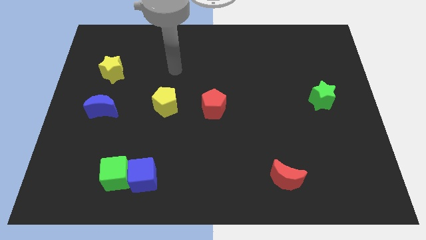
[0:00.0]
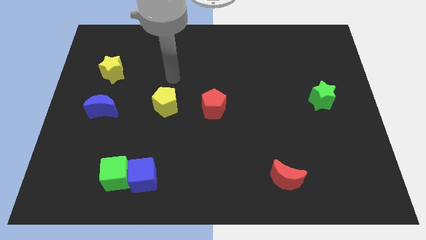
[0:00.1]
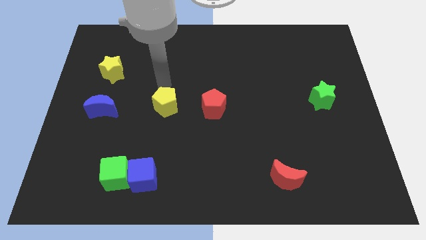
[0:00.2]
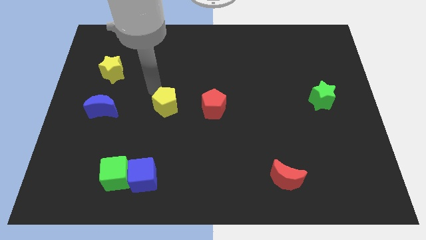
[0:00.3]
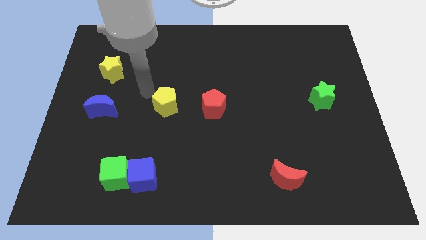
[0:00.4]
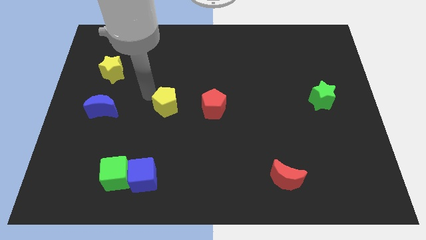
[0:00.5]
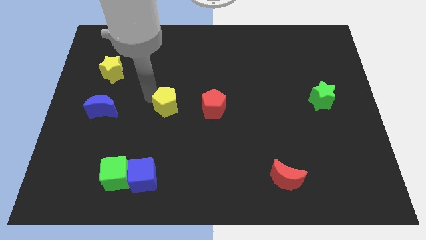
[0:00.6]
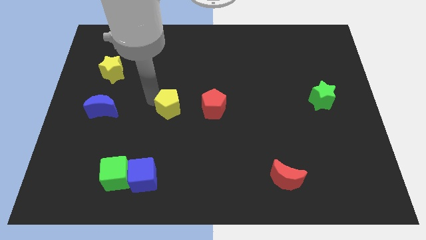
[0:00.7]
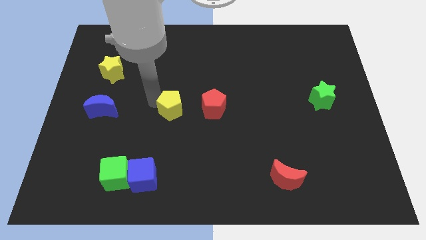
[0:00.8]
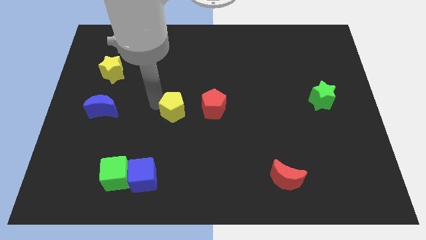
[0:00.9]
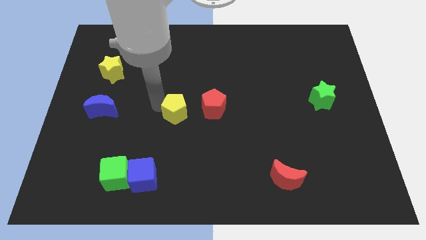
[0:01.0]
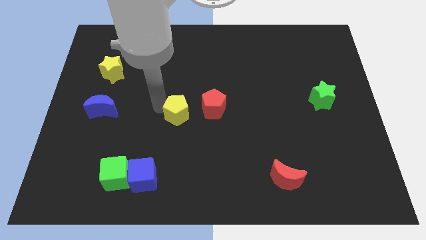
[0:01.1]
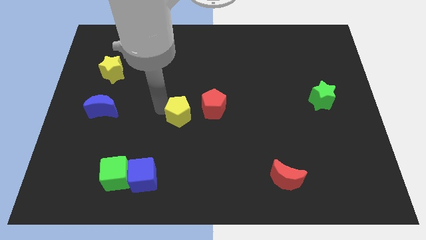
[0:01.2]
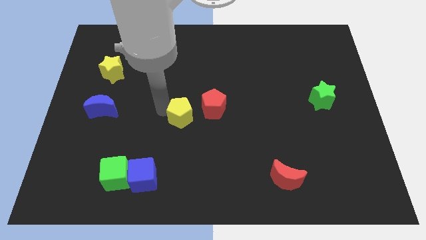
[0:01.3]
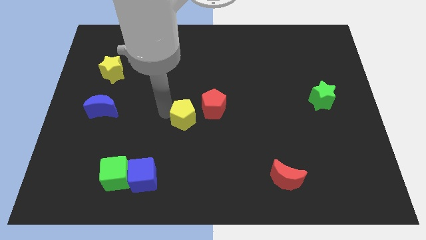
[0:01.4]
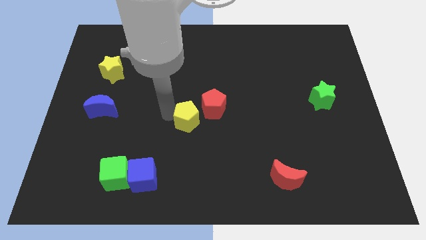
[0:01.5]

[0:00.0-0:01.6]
slightly slide the yellow pentagon down and to the right diagonally

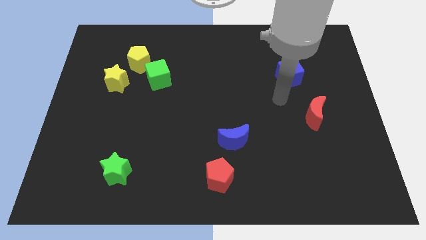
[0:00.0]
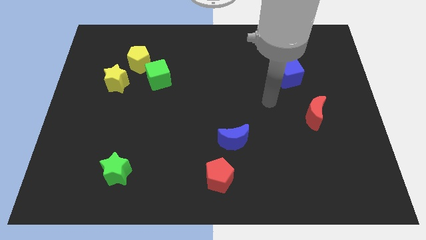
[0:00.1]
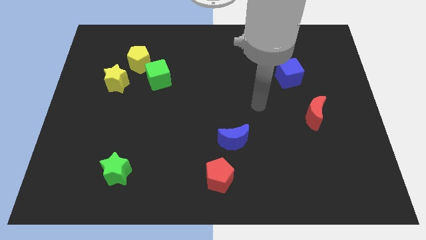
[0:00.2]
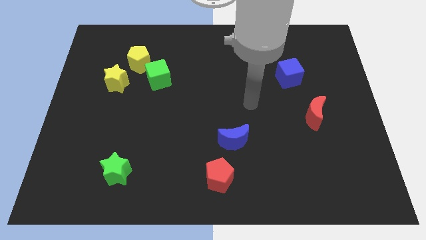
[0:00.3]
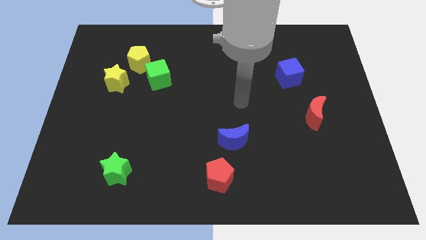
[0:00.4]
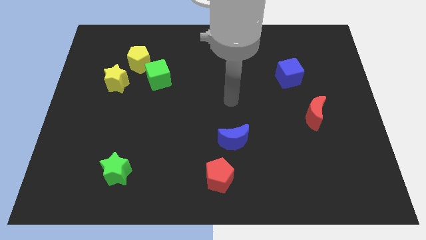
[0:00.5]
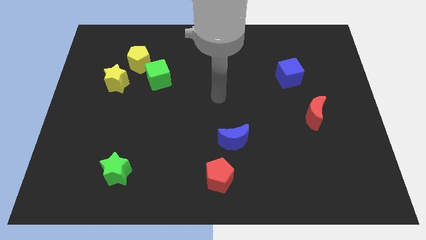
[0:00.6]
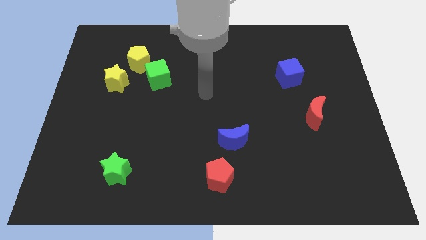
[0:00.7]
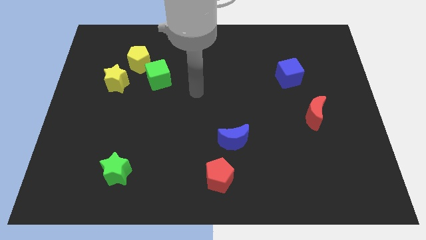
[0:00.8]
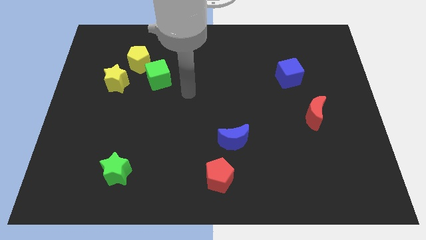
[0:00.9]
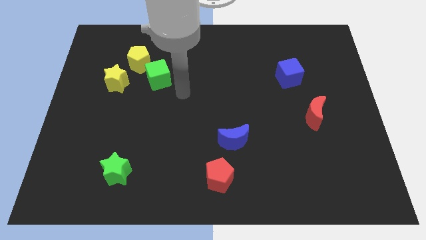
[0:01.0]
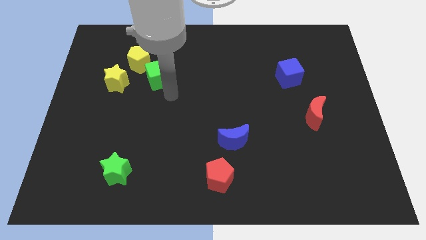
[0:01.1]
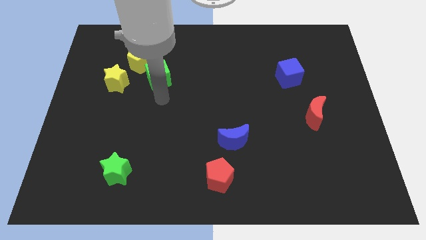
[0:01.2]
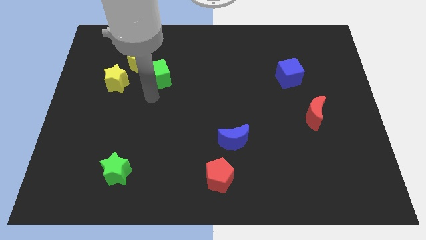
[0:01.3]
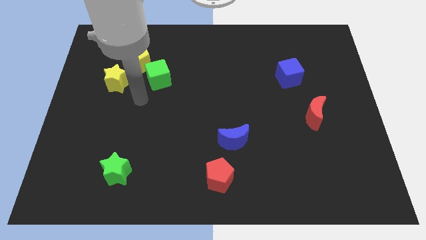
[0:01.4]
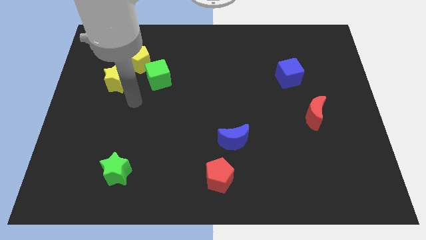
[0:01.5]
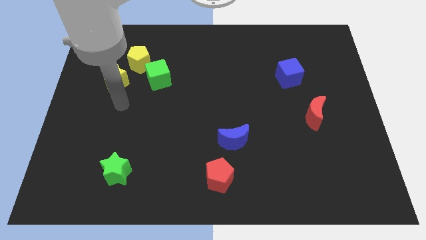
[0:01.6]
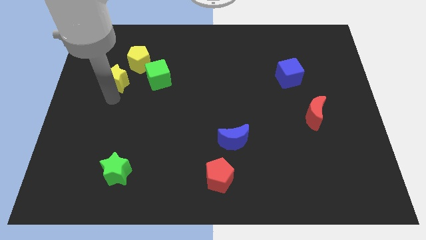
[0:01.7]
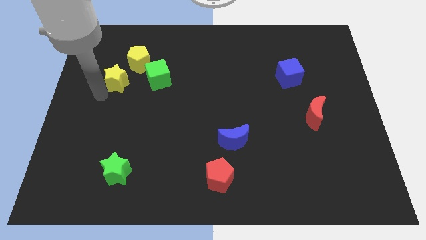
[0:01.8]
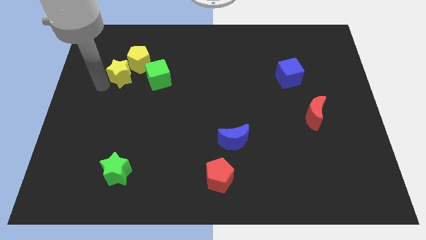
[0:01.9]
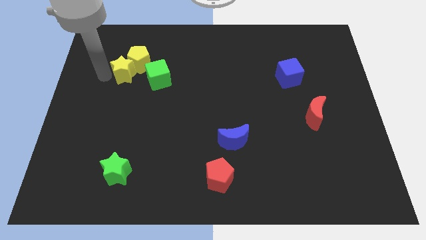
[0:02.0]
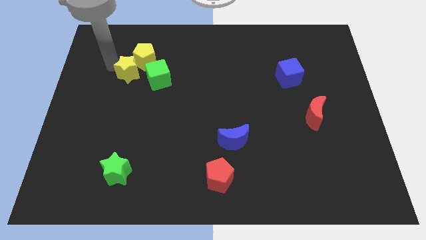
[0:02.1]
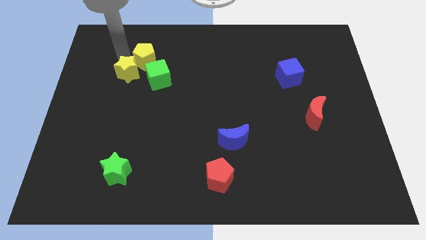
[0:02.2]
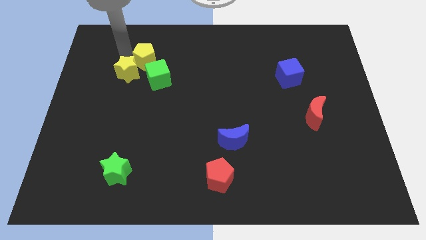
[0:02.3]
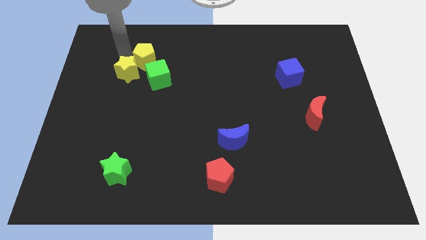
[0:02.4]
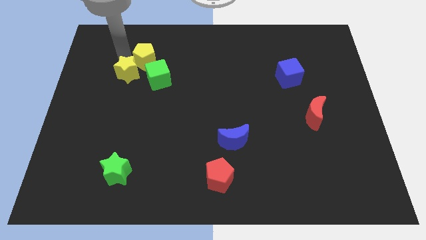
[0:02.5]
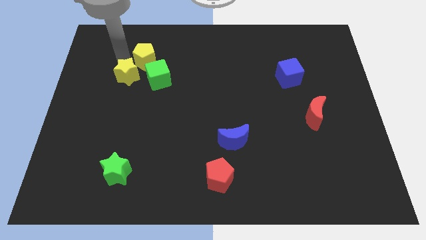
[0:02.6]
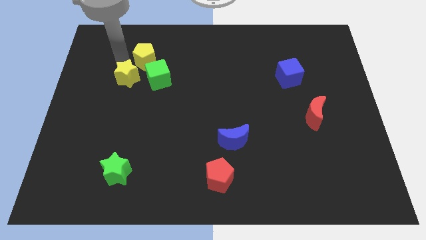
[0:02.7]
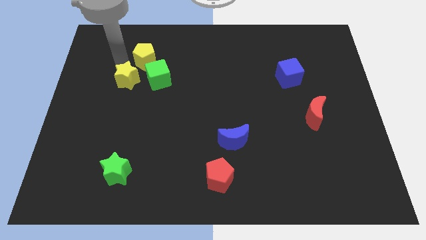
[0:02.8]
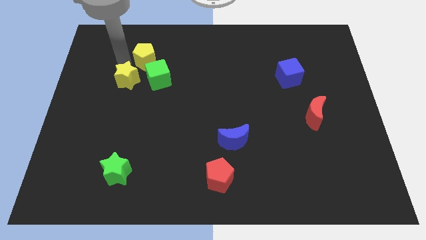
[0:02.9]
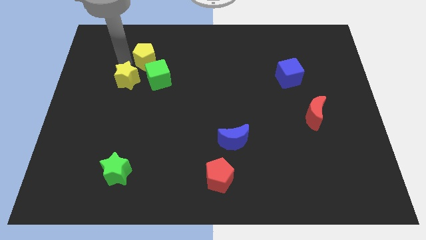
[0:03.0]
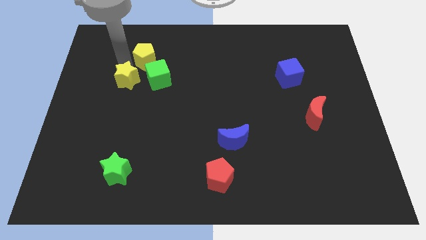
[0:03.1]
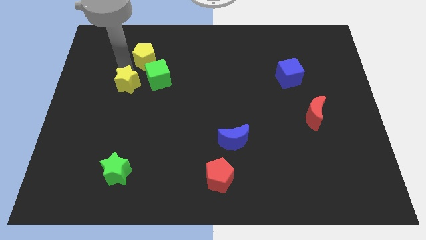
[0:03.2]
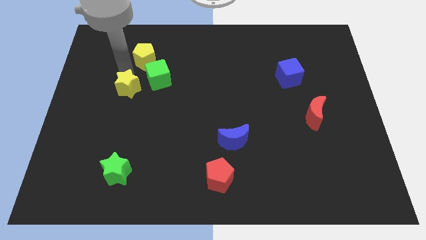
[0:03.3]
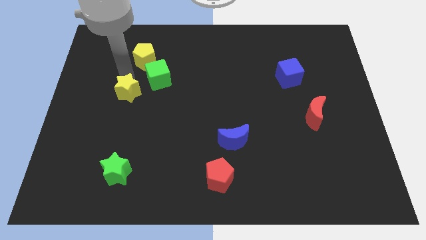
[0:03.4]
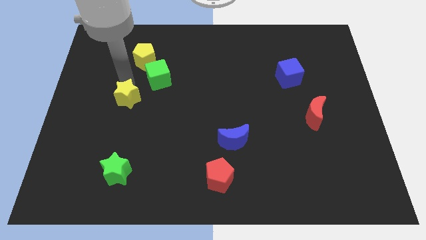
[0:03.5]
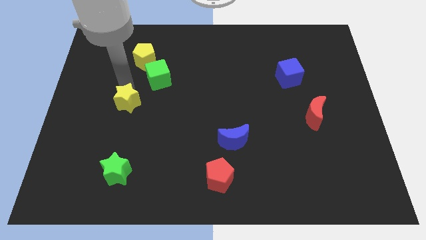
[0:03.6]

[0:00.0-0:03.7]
push the yellow star a bit down and right

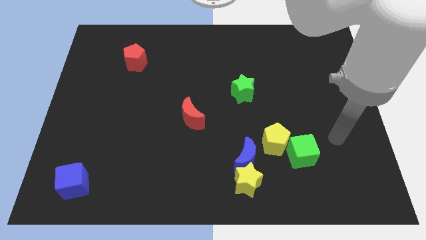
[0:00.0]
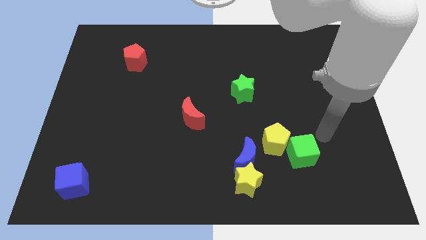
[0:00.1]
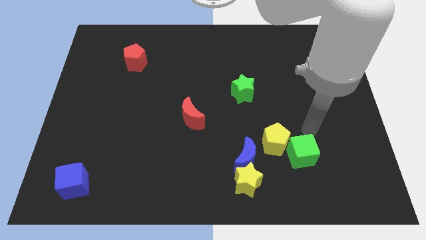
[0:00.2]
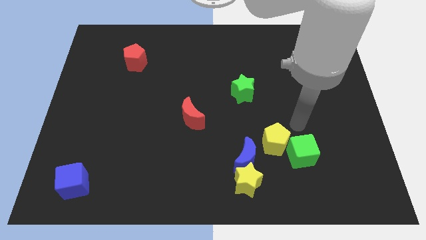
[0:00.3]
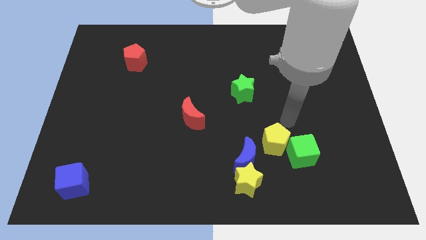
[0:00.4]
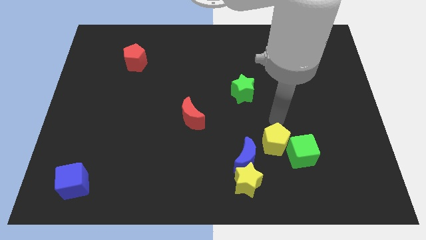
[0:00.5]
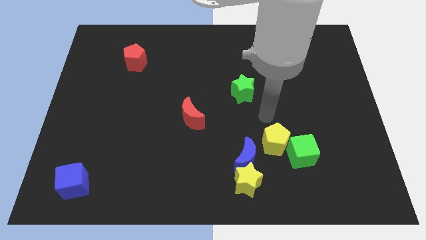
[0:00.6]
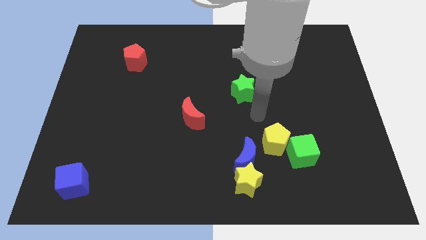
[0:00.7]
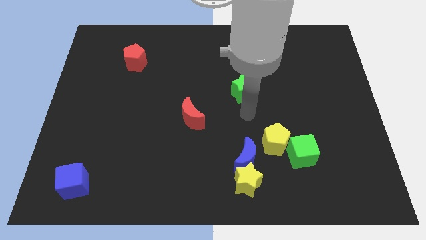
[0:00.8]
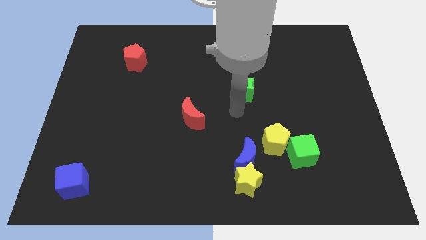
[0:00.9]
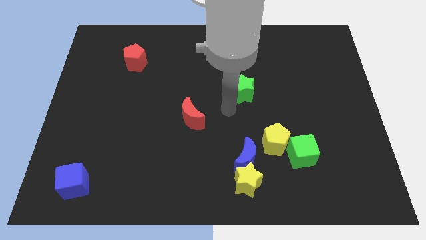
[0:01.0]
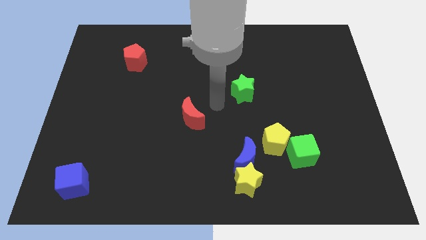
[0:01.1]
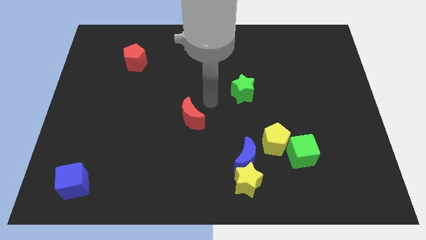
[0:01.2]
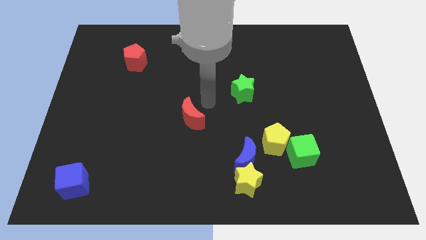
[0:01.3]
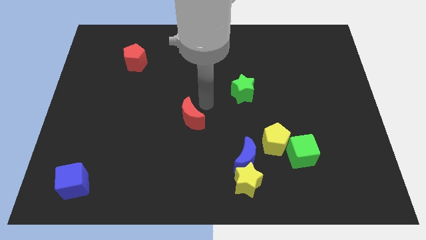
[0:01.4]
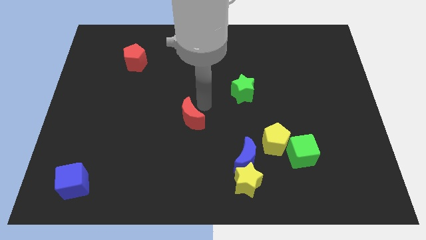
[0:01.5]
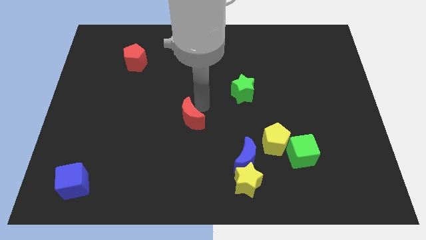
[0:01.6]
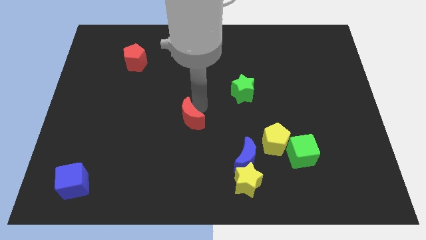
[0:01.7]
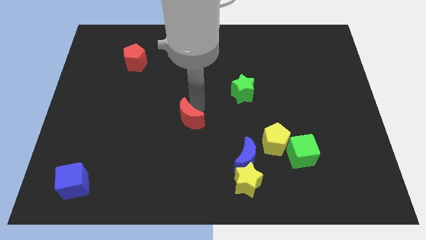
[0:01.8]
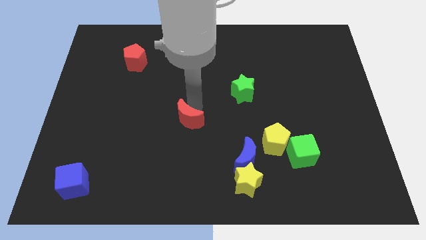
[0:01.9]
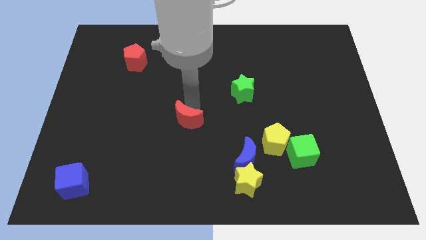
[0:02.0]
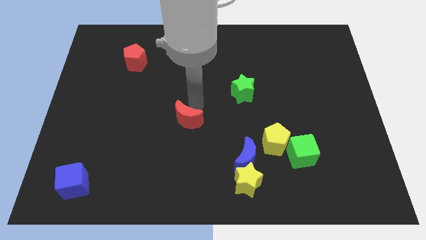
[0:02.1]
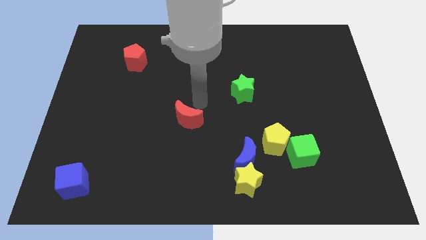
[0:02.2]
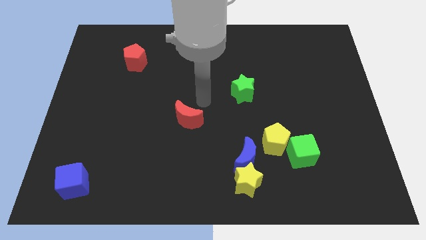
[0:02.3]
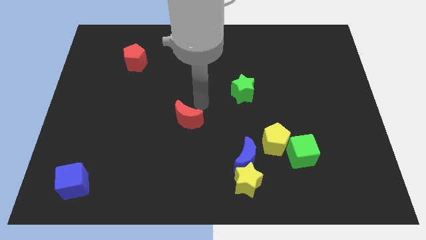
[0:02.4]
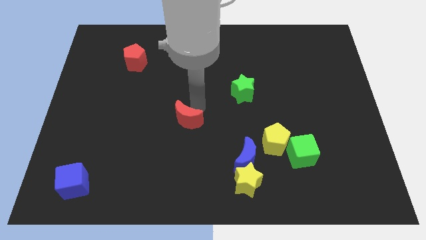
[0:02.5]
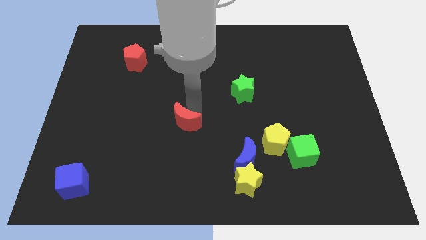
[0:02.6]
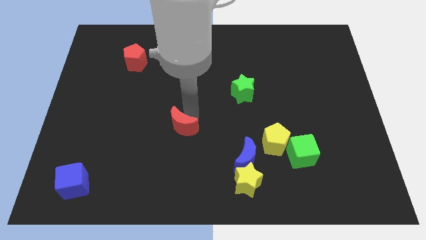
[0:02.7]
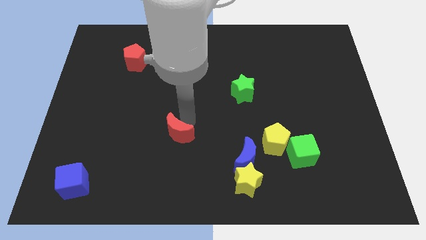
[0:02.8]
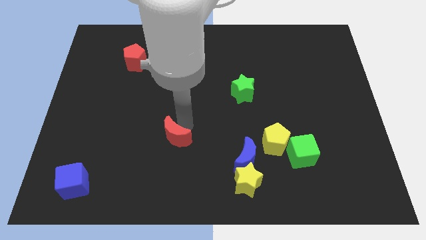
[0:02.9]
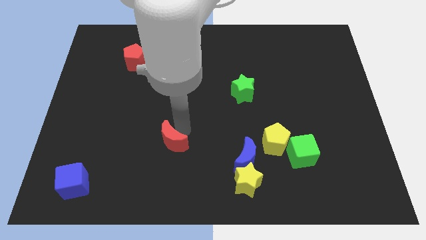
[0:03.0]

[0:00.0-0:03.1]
slide the red moon a little downwards and left diagonally
